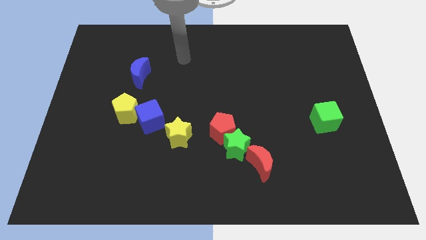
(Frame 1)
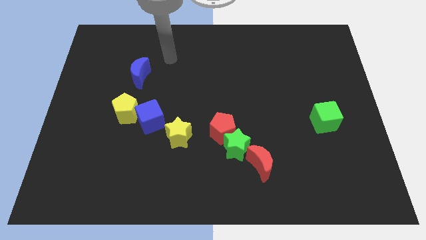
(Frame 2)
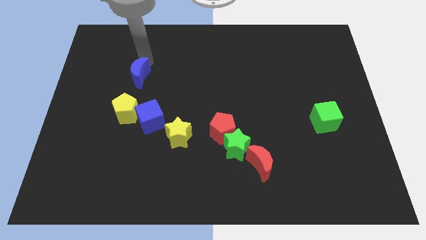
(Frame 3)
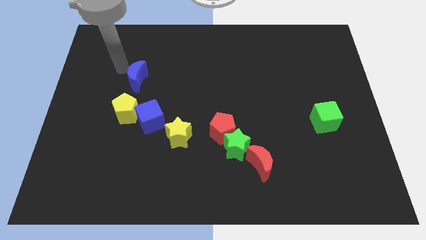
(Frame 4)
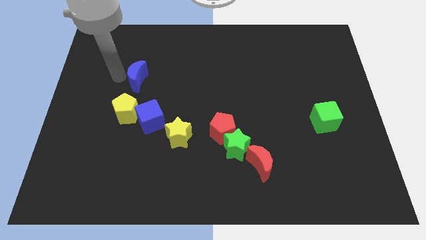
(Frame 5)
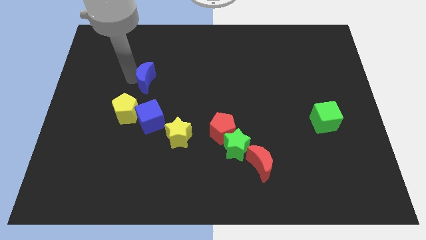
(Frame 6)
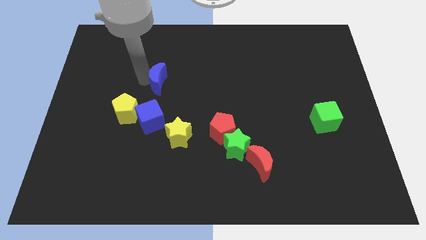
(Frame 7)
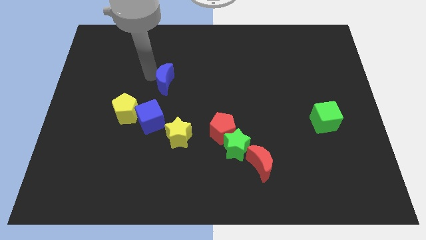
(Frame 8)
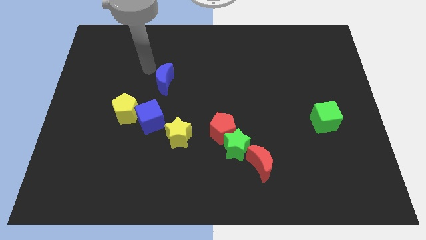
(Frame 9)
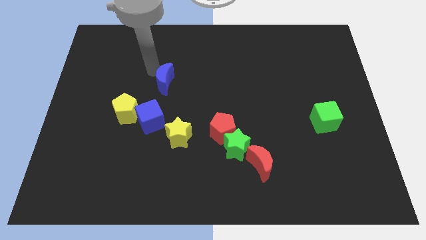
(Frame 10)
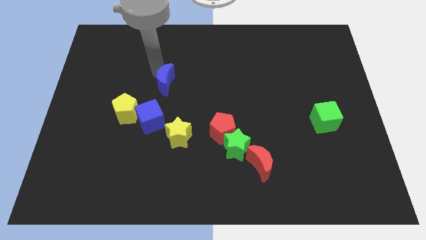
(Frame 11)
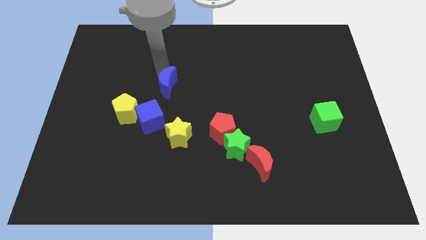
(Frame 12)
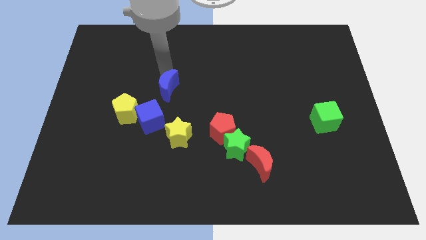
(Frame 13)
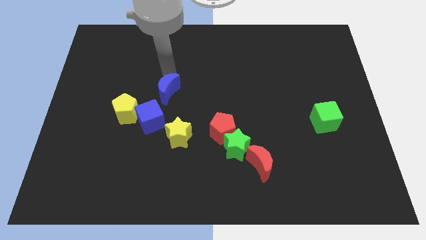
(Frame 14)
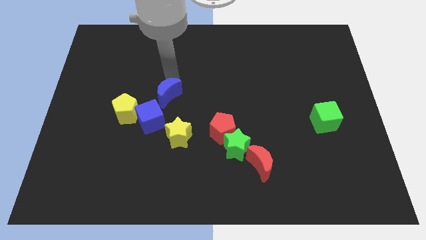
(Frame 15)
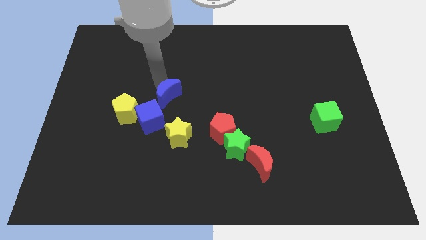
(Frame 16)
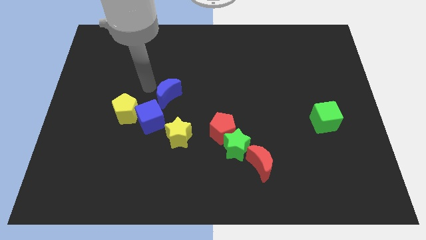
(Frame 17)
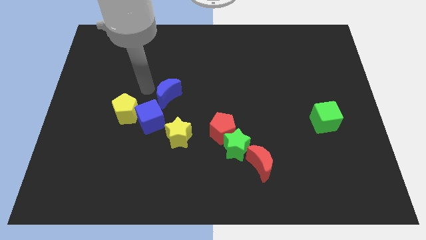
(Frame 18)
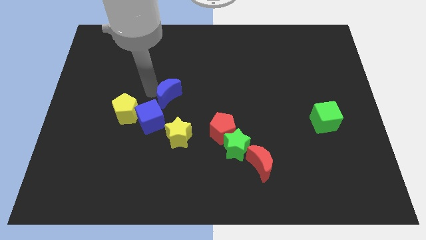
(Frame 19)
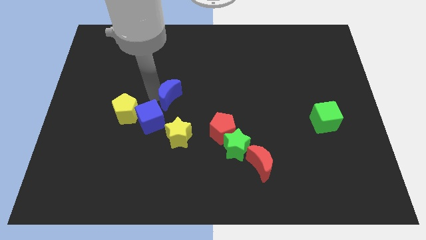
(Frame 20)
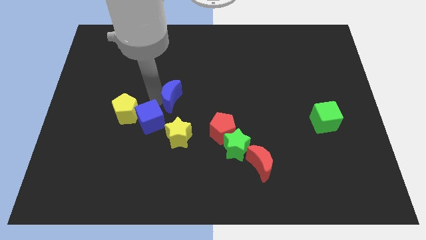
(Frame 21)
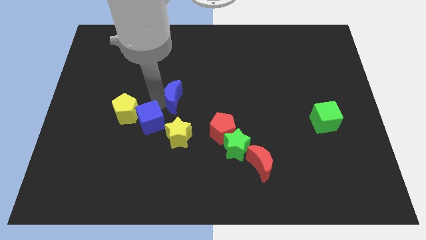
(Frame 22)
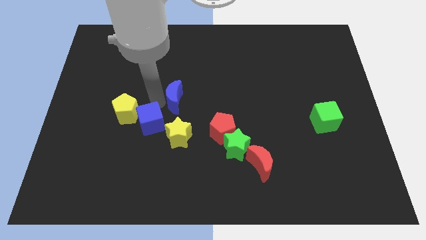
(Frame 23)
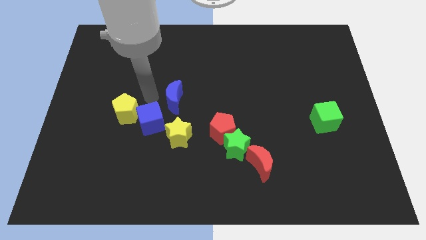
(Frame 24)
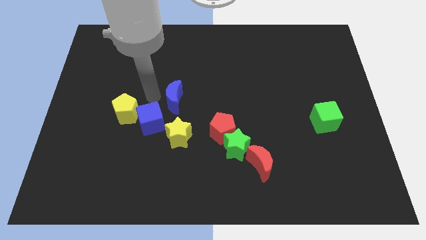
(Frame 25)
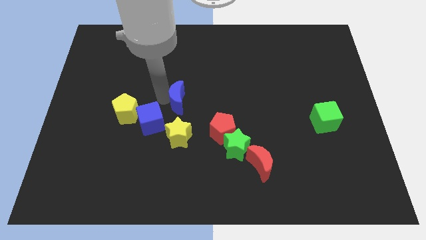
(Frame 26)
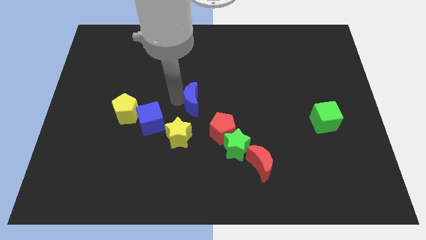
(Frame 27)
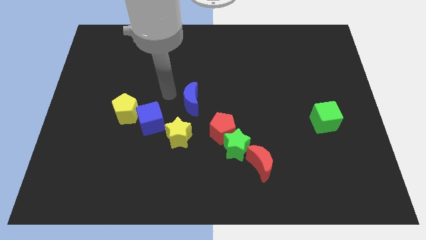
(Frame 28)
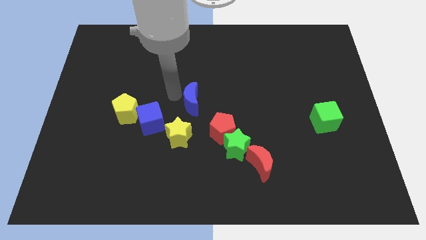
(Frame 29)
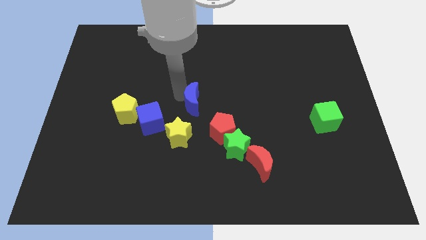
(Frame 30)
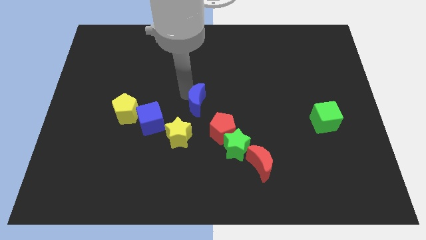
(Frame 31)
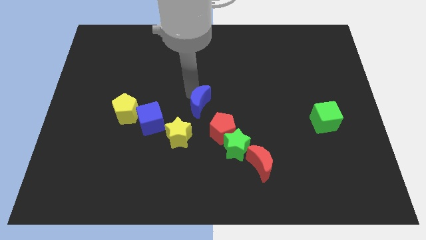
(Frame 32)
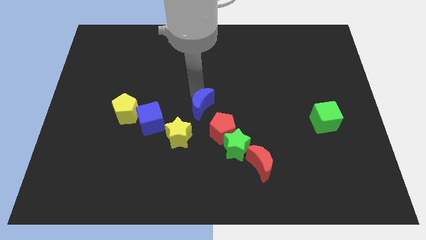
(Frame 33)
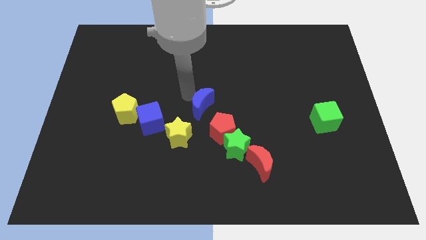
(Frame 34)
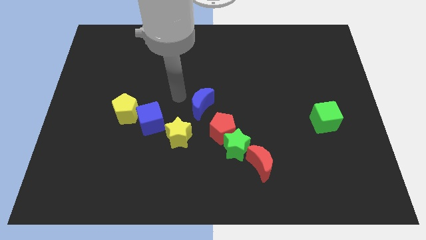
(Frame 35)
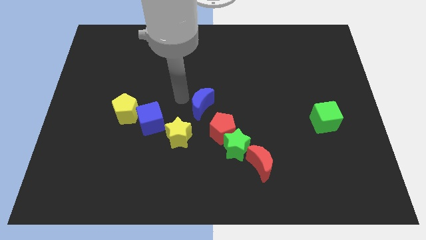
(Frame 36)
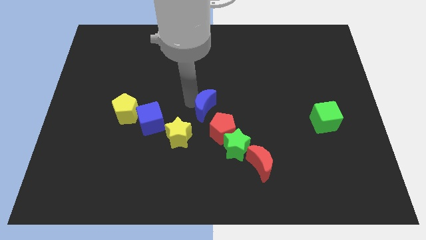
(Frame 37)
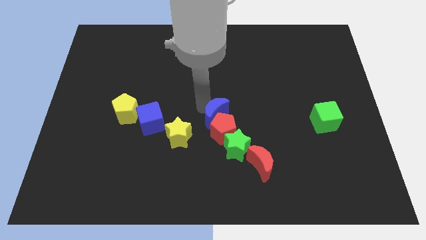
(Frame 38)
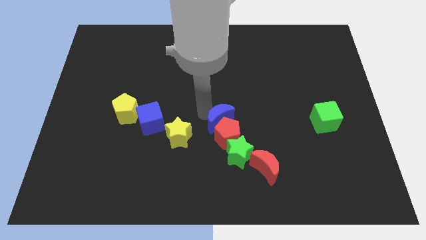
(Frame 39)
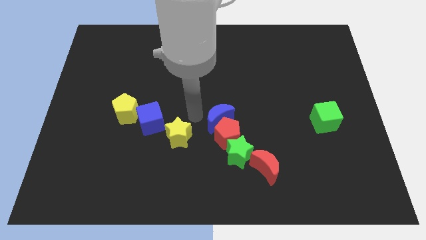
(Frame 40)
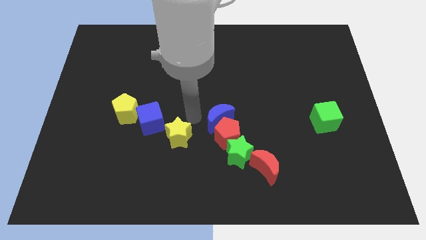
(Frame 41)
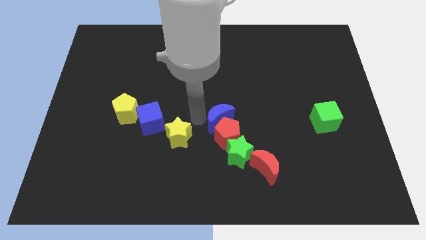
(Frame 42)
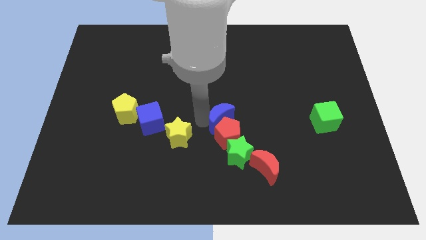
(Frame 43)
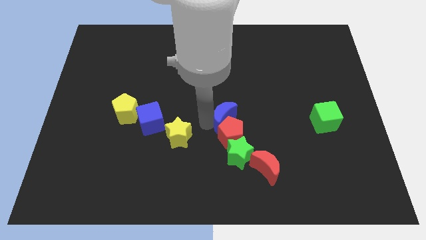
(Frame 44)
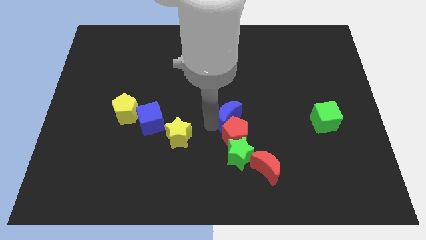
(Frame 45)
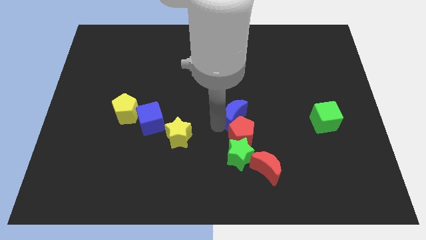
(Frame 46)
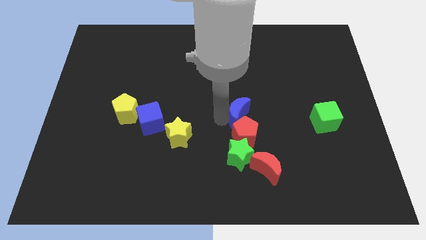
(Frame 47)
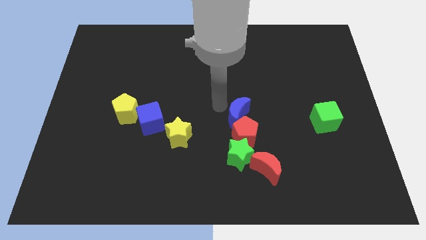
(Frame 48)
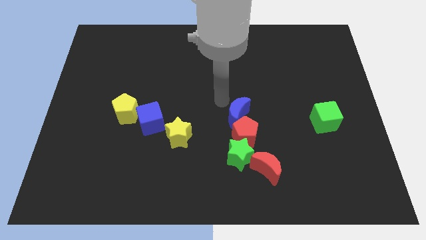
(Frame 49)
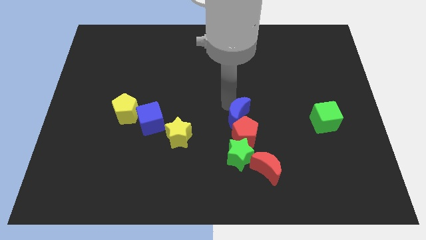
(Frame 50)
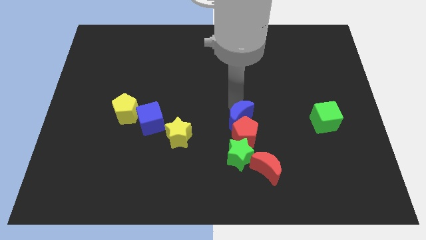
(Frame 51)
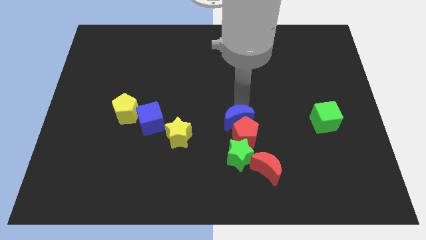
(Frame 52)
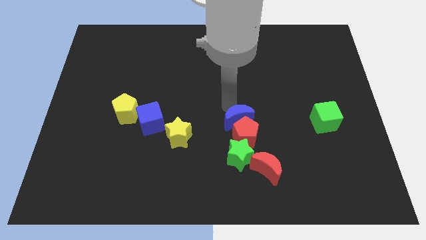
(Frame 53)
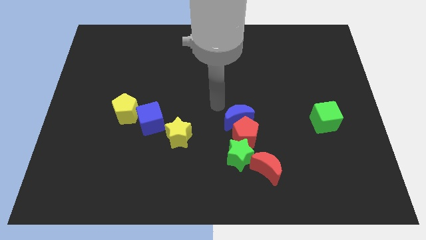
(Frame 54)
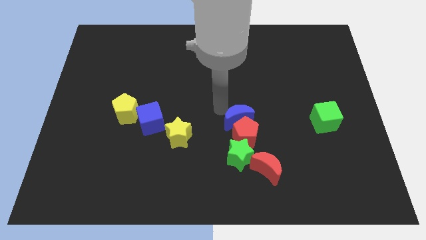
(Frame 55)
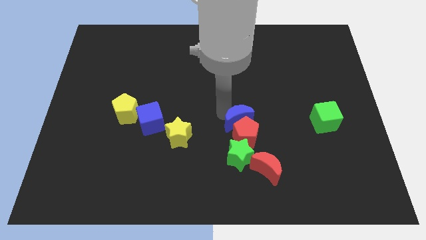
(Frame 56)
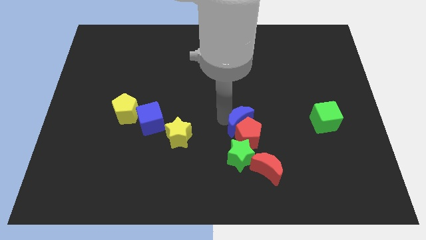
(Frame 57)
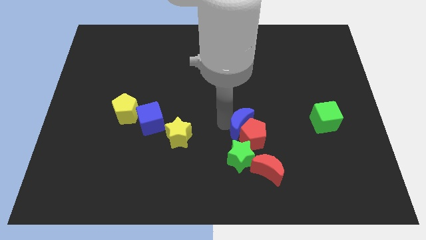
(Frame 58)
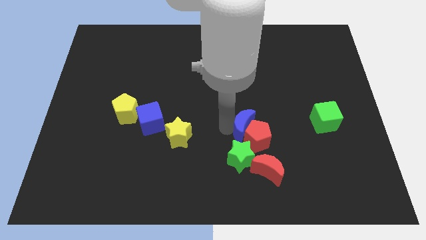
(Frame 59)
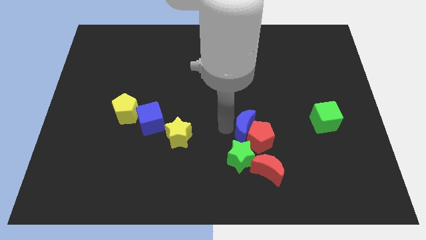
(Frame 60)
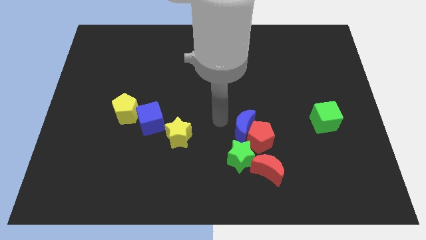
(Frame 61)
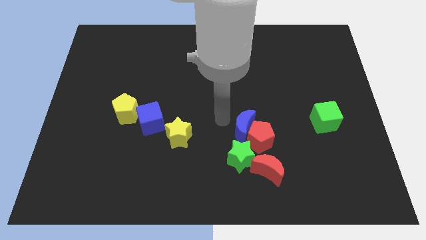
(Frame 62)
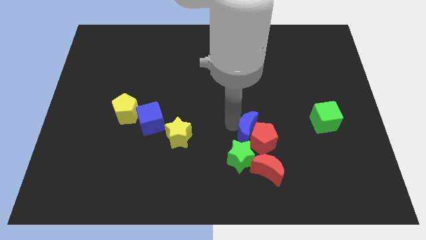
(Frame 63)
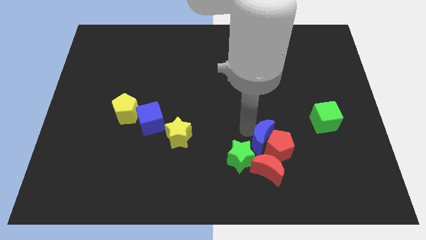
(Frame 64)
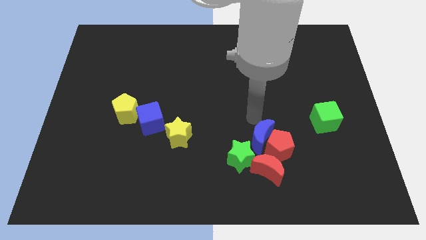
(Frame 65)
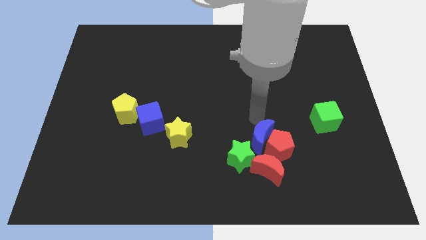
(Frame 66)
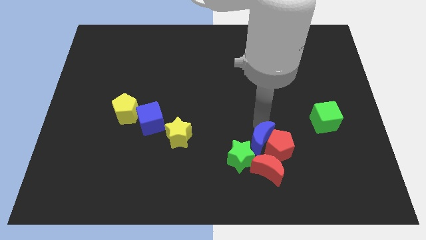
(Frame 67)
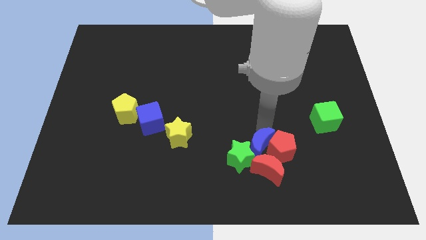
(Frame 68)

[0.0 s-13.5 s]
push the blue moon next to the red moon
